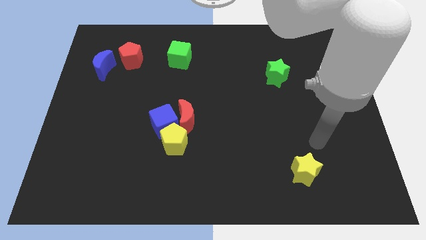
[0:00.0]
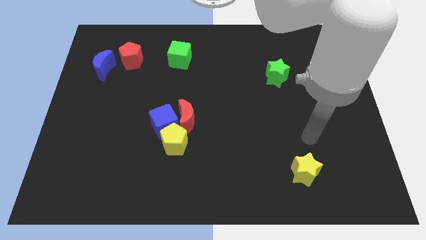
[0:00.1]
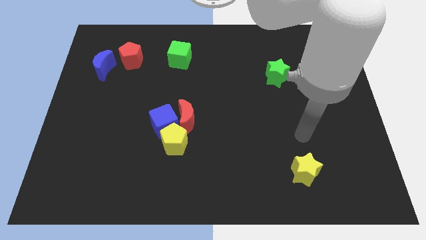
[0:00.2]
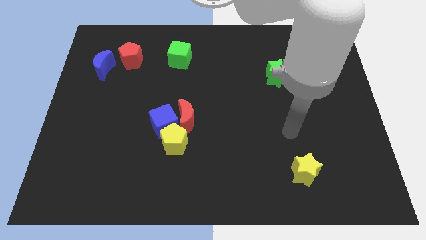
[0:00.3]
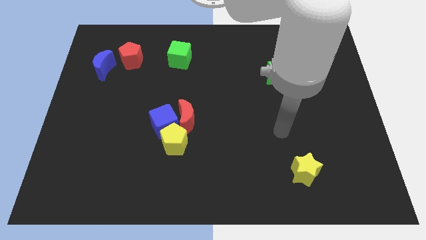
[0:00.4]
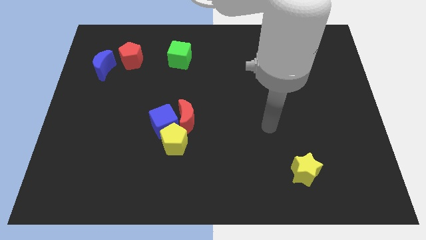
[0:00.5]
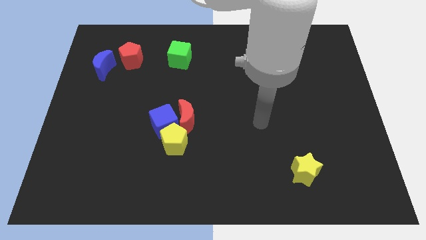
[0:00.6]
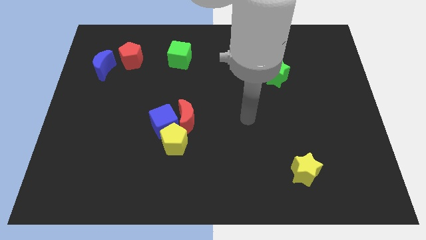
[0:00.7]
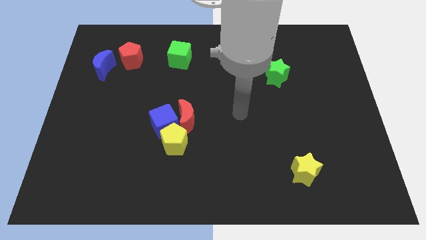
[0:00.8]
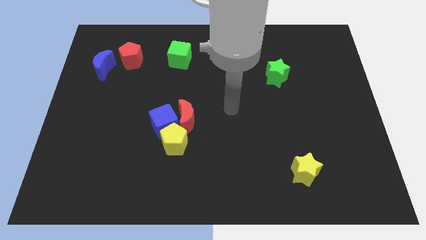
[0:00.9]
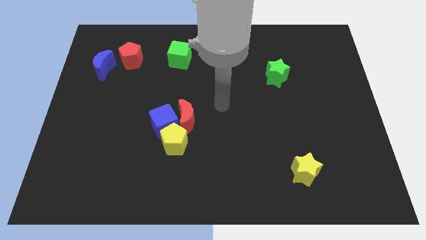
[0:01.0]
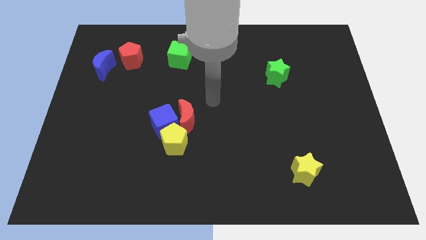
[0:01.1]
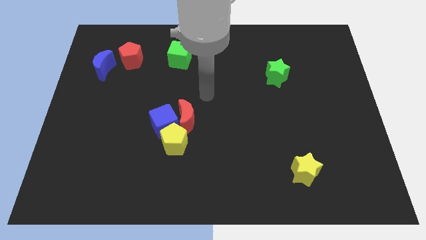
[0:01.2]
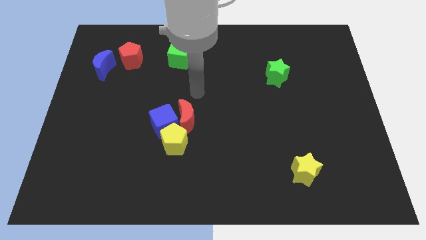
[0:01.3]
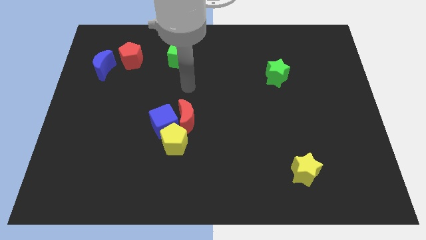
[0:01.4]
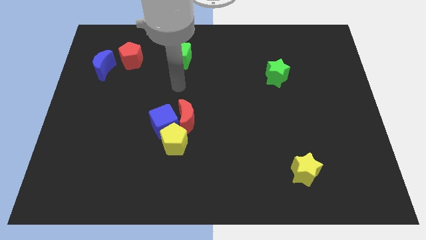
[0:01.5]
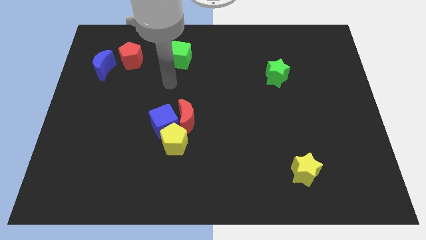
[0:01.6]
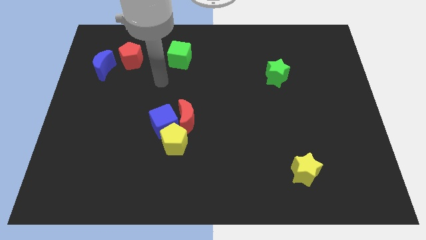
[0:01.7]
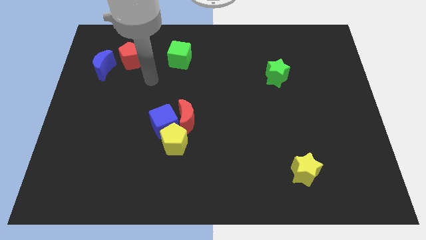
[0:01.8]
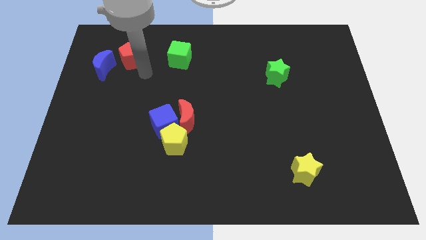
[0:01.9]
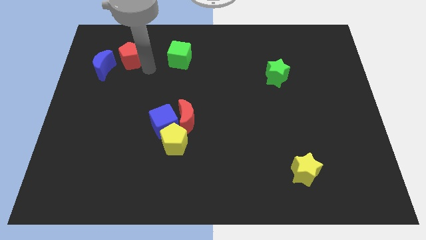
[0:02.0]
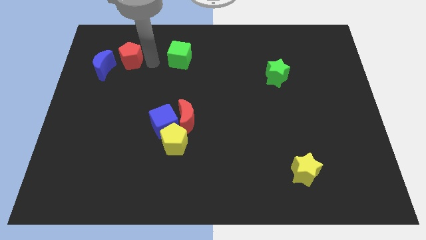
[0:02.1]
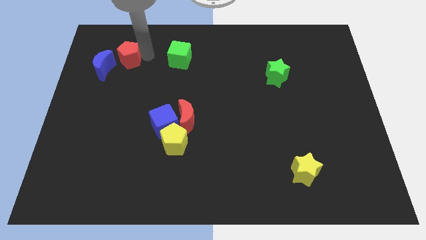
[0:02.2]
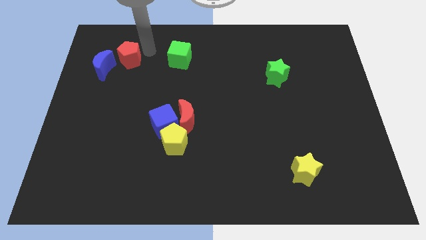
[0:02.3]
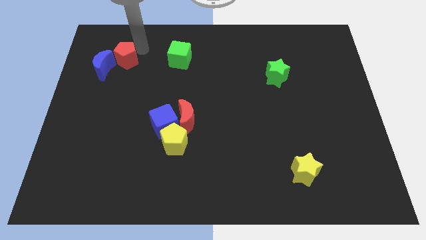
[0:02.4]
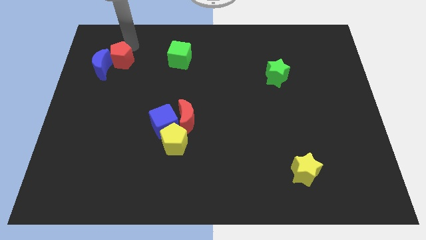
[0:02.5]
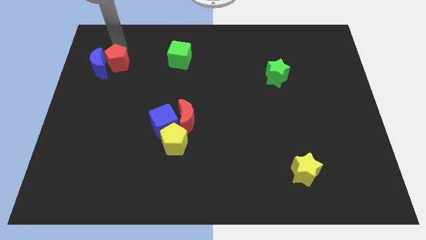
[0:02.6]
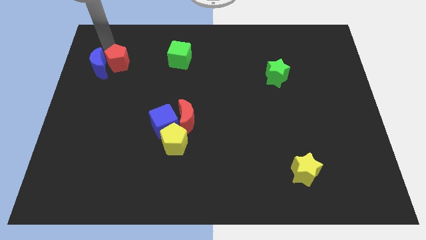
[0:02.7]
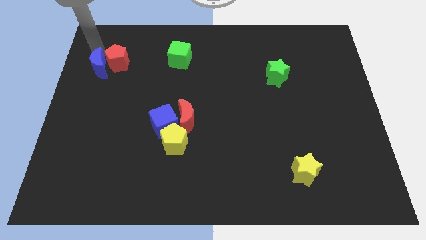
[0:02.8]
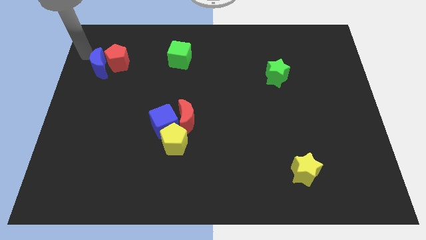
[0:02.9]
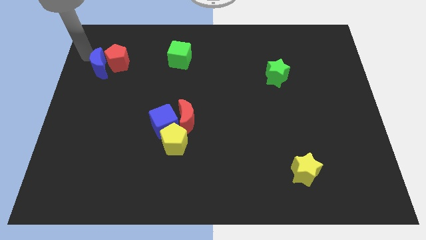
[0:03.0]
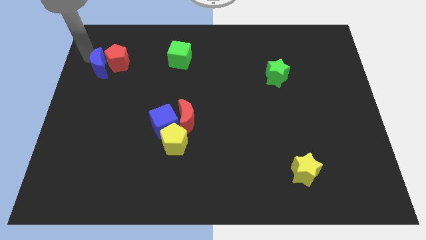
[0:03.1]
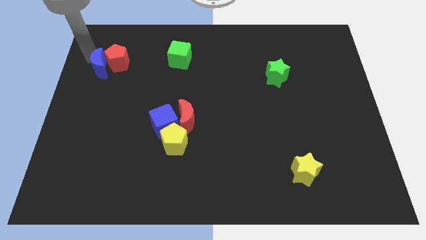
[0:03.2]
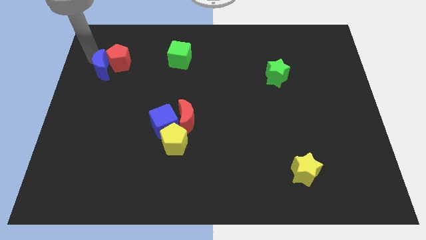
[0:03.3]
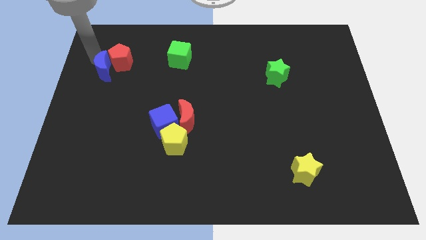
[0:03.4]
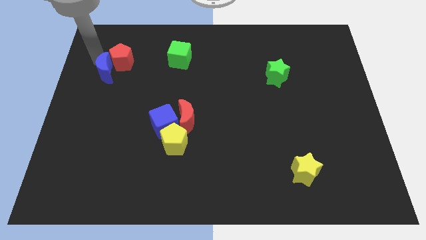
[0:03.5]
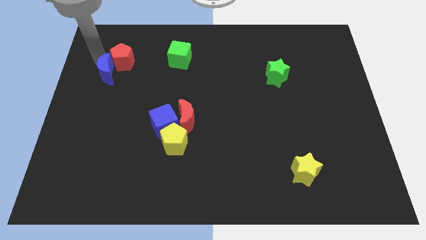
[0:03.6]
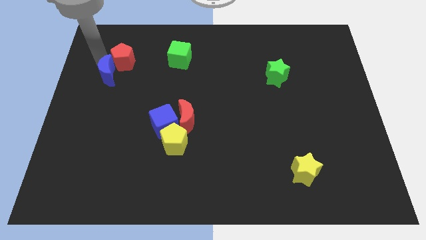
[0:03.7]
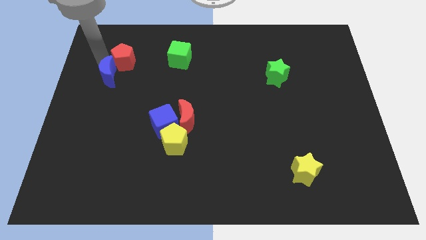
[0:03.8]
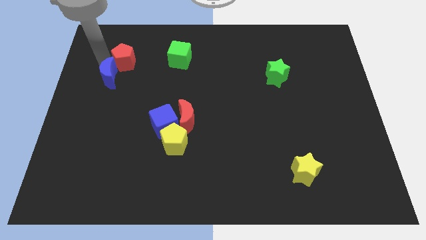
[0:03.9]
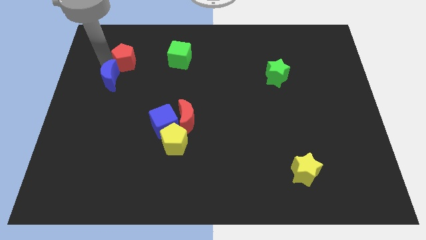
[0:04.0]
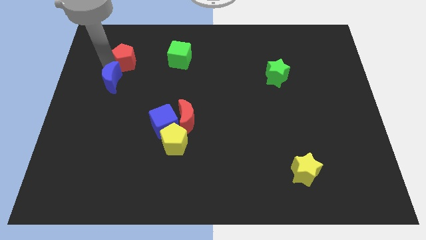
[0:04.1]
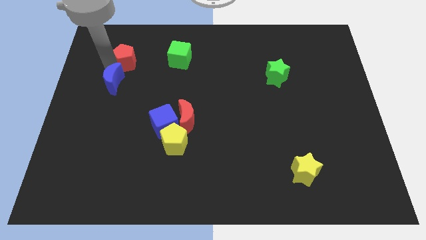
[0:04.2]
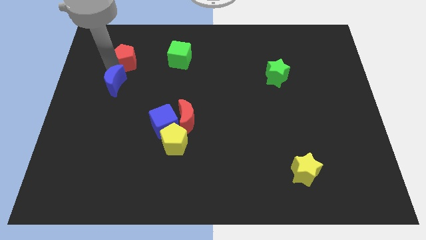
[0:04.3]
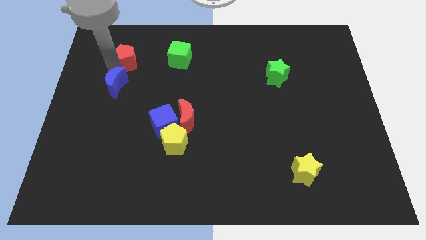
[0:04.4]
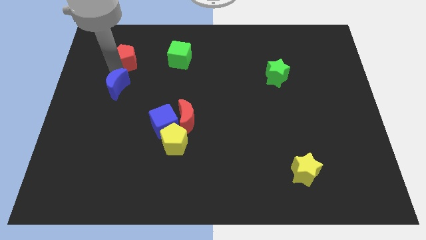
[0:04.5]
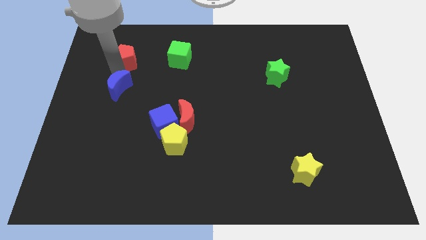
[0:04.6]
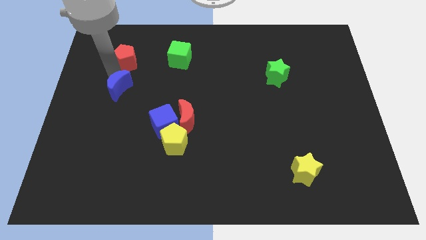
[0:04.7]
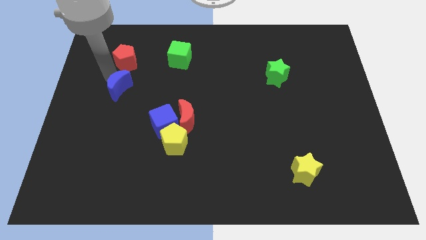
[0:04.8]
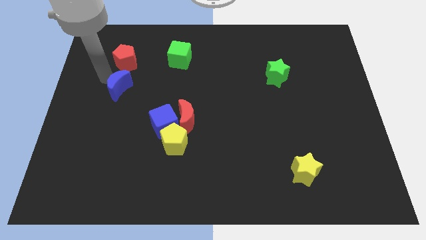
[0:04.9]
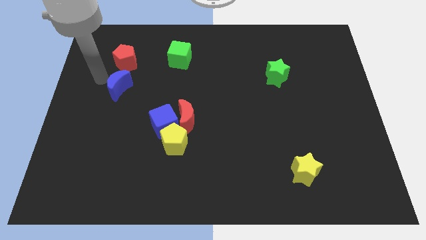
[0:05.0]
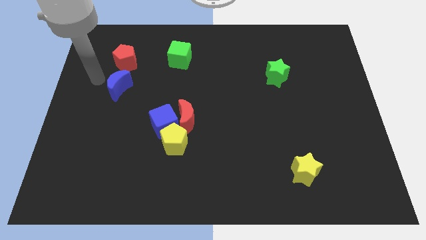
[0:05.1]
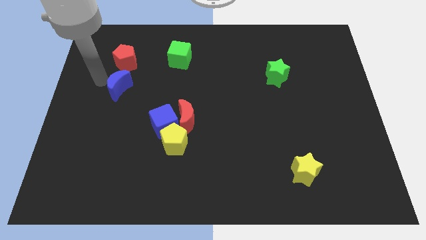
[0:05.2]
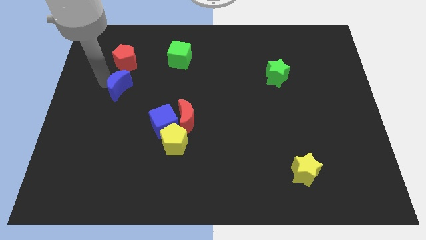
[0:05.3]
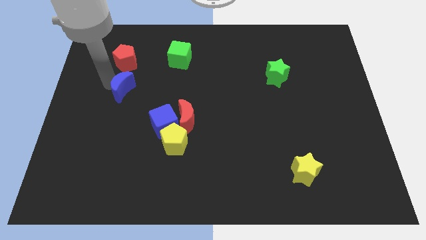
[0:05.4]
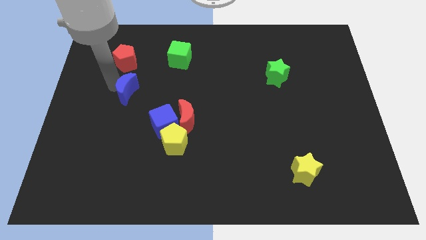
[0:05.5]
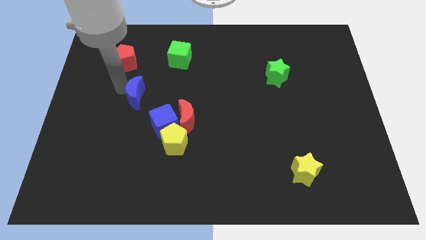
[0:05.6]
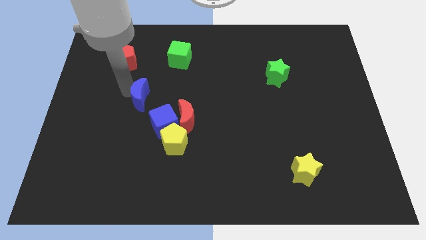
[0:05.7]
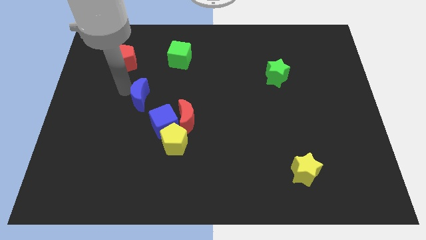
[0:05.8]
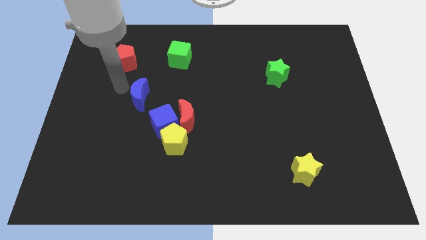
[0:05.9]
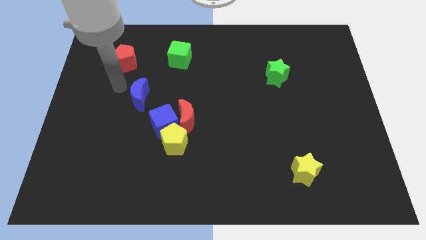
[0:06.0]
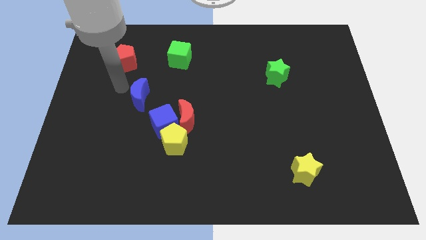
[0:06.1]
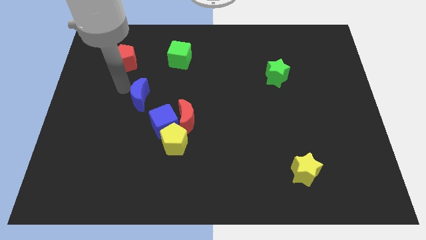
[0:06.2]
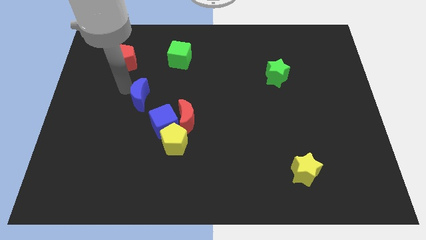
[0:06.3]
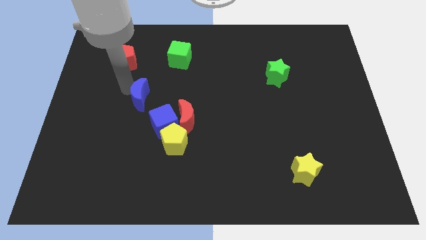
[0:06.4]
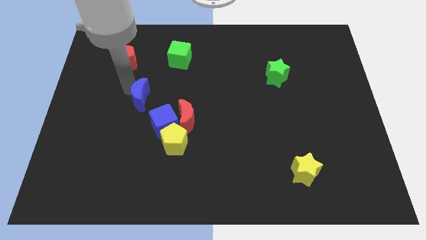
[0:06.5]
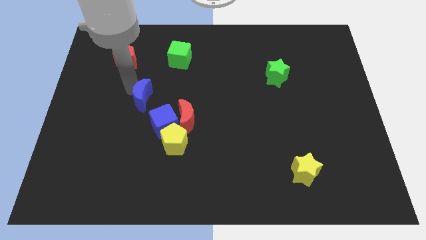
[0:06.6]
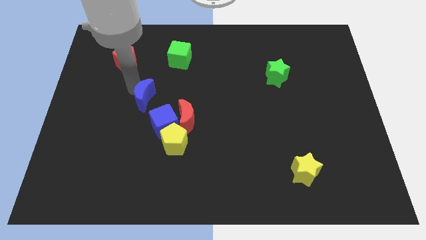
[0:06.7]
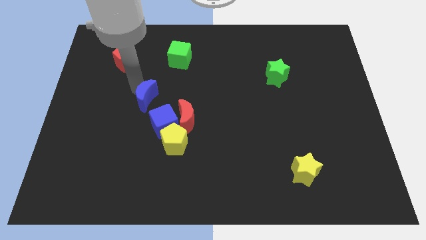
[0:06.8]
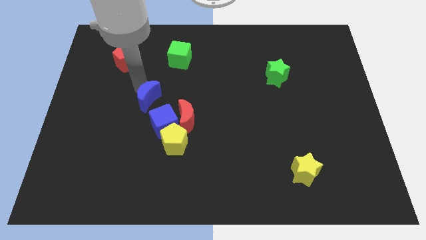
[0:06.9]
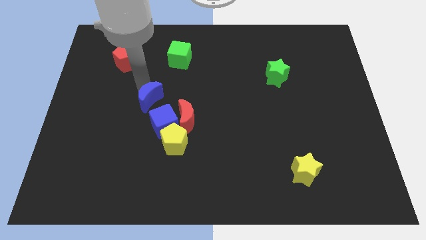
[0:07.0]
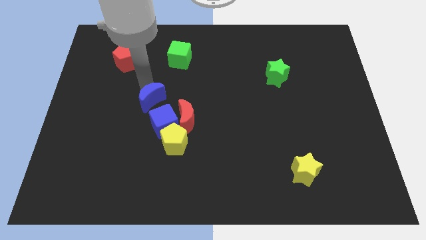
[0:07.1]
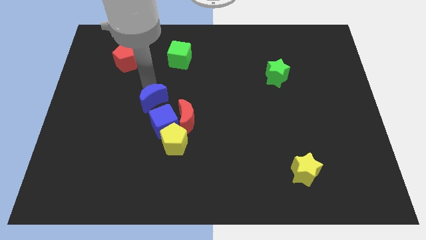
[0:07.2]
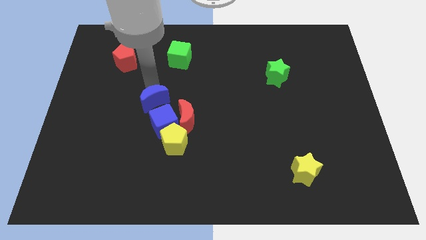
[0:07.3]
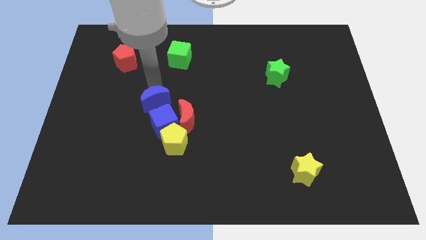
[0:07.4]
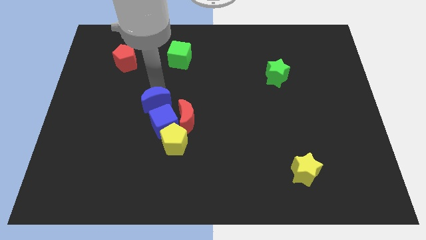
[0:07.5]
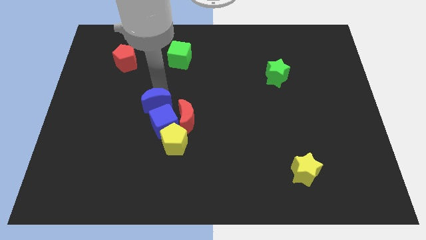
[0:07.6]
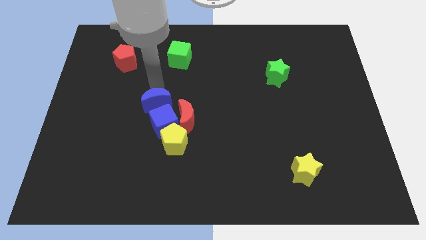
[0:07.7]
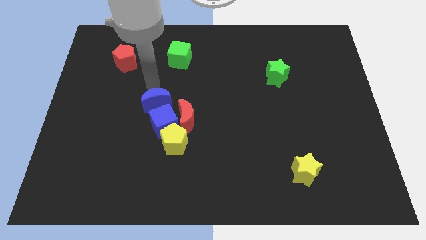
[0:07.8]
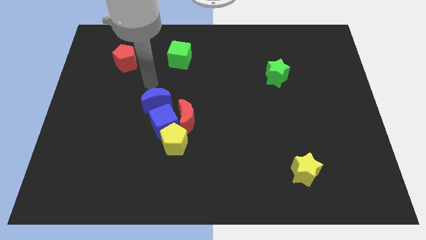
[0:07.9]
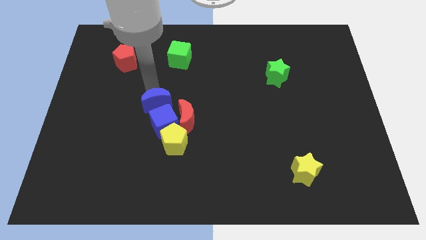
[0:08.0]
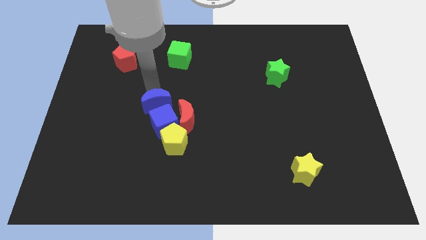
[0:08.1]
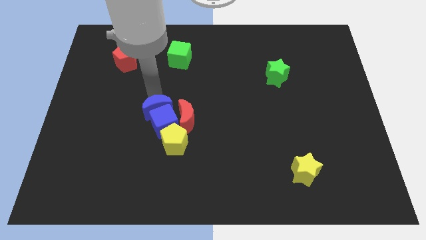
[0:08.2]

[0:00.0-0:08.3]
push the blue moon towards the blue cube
